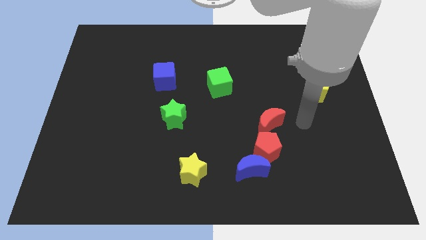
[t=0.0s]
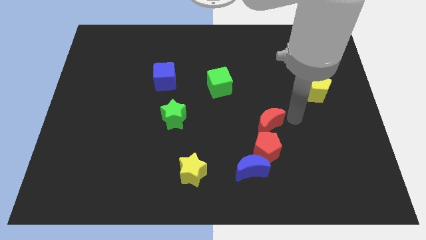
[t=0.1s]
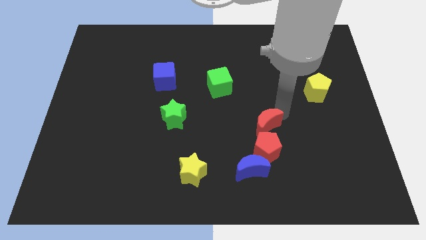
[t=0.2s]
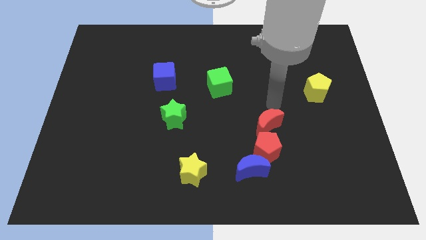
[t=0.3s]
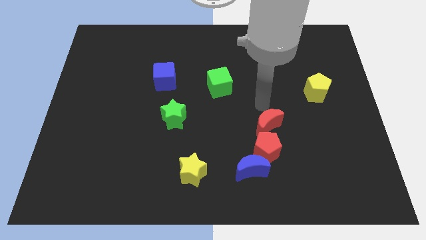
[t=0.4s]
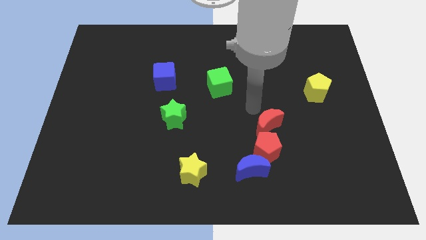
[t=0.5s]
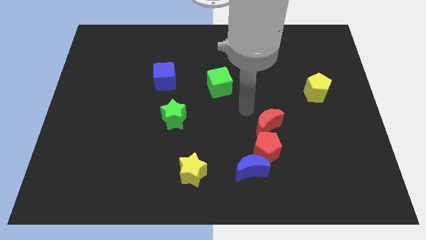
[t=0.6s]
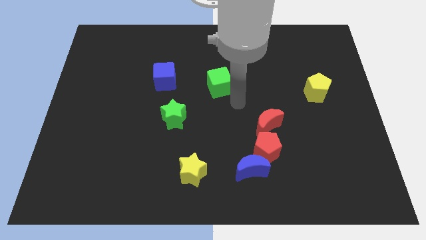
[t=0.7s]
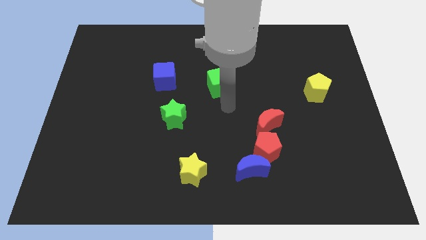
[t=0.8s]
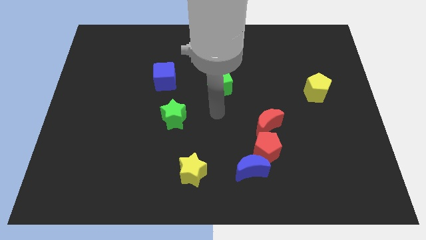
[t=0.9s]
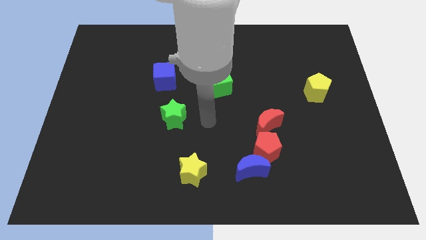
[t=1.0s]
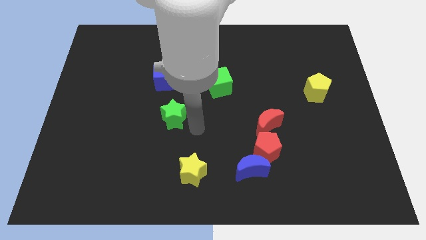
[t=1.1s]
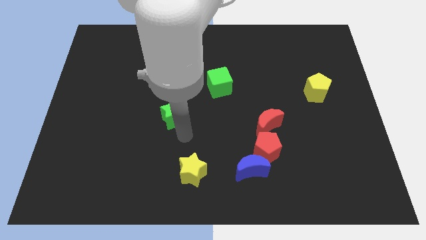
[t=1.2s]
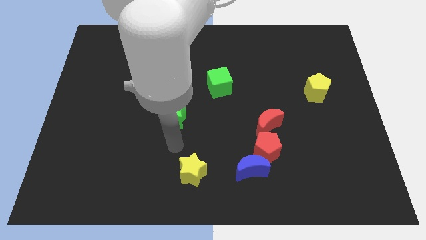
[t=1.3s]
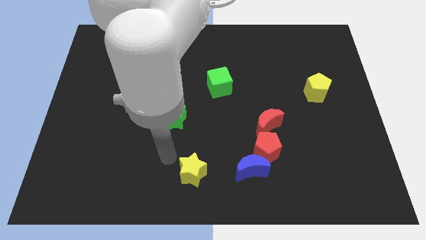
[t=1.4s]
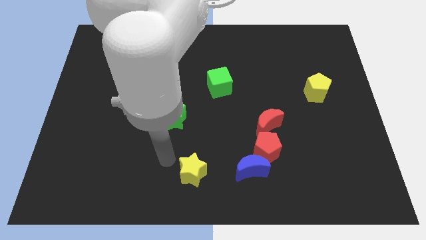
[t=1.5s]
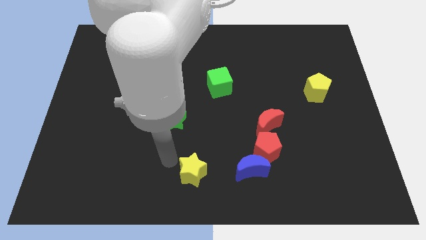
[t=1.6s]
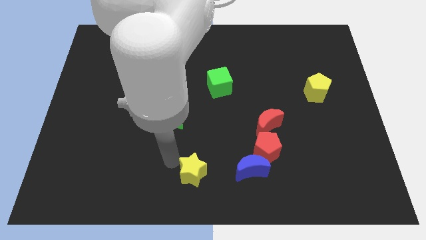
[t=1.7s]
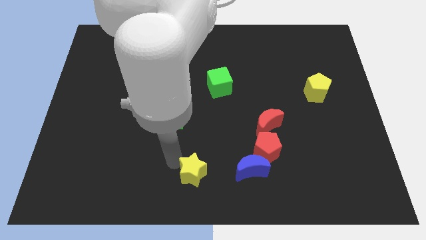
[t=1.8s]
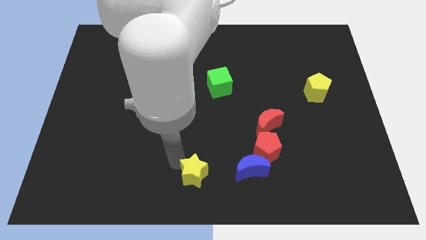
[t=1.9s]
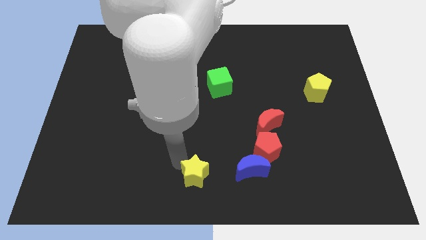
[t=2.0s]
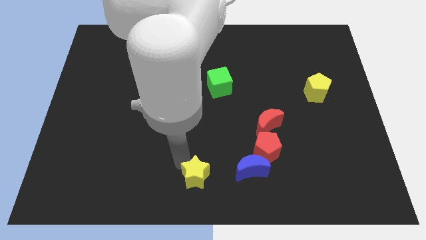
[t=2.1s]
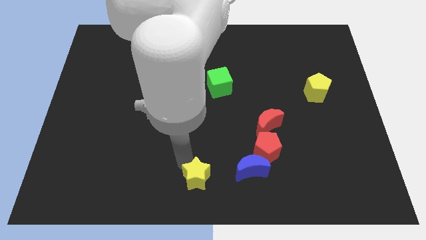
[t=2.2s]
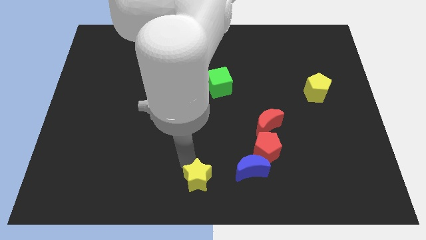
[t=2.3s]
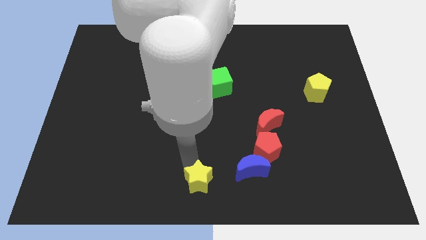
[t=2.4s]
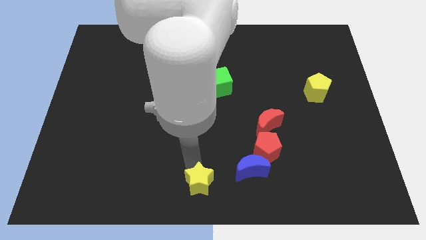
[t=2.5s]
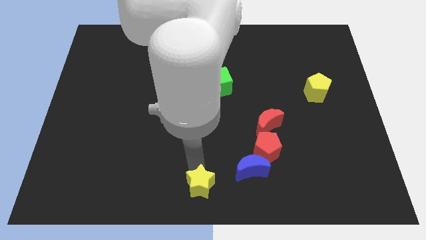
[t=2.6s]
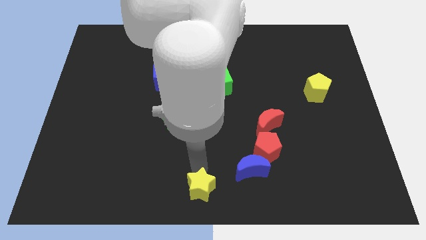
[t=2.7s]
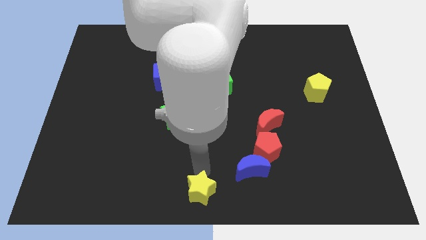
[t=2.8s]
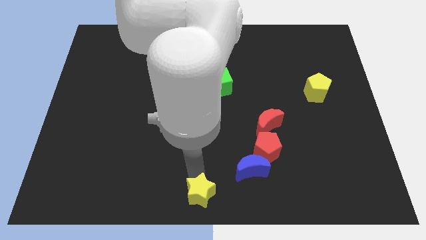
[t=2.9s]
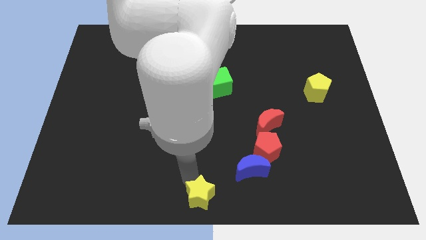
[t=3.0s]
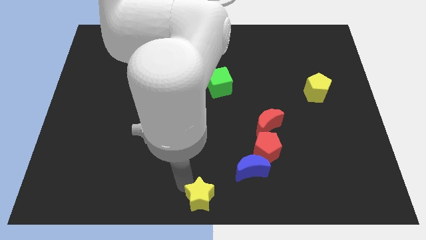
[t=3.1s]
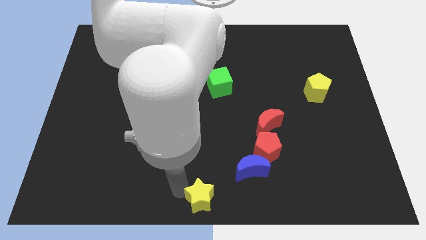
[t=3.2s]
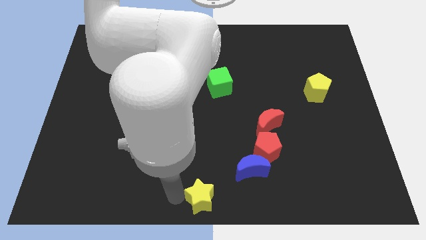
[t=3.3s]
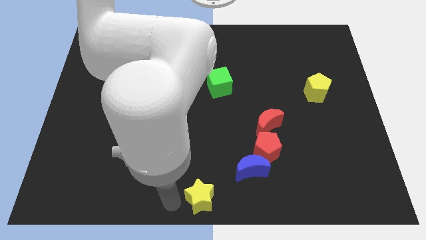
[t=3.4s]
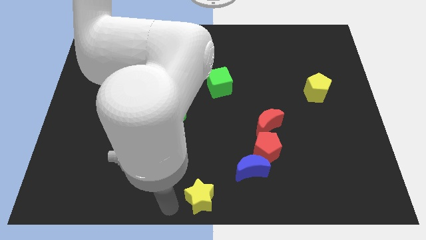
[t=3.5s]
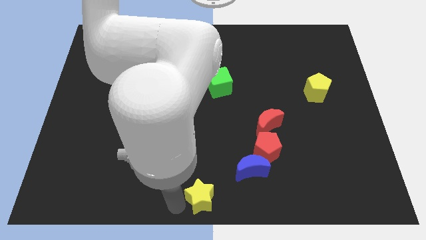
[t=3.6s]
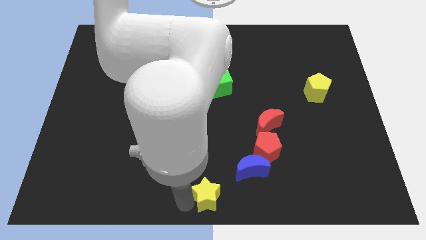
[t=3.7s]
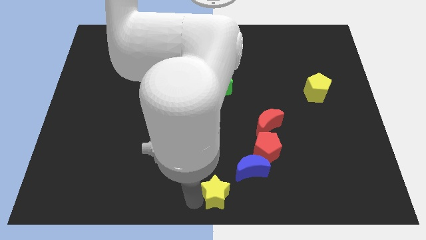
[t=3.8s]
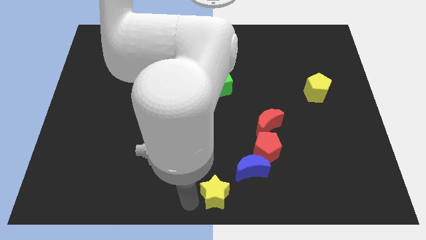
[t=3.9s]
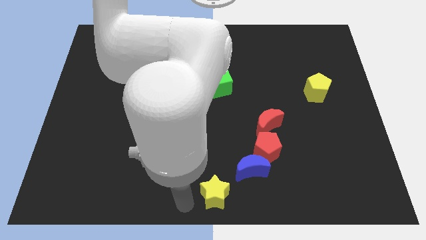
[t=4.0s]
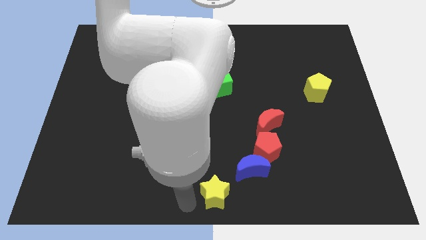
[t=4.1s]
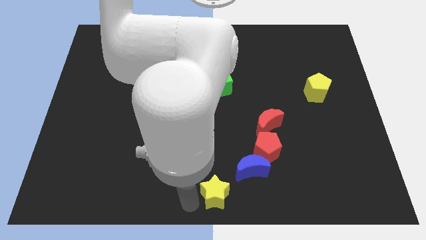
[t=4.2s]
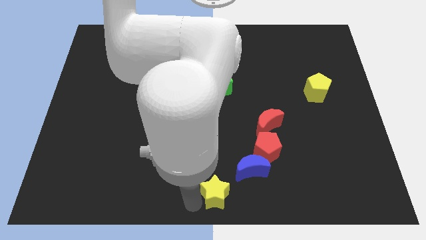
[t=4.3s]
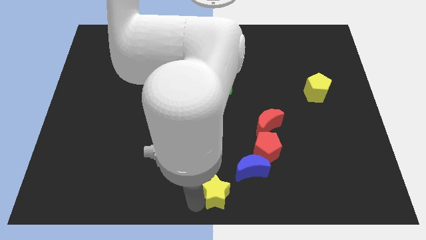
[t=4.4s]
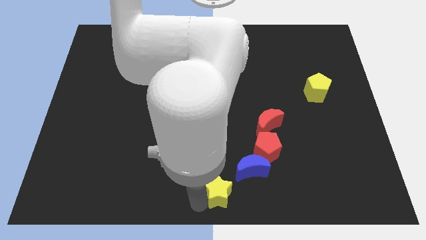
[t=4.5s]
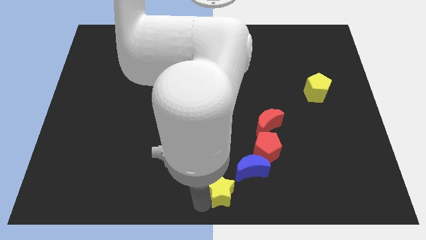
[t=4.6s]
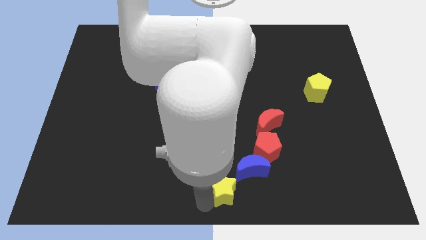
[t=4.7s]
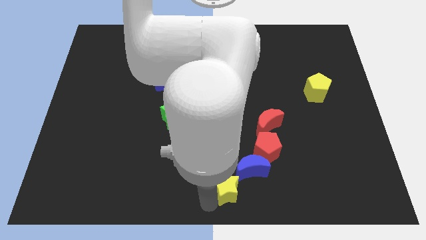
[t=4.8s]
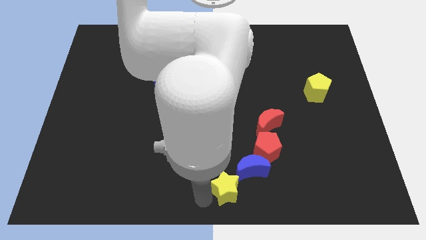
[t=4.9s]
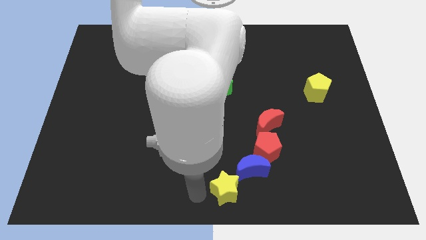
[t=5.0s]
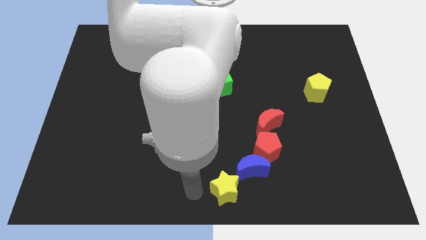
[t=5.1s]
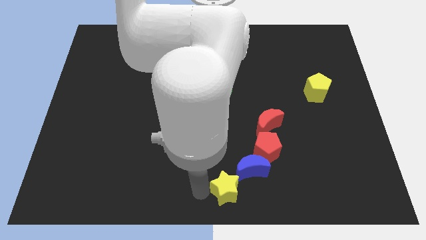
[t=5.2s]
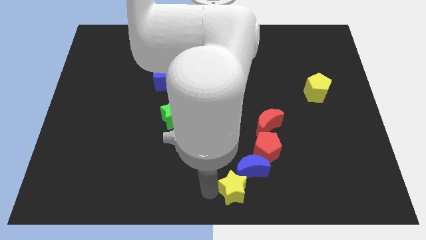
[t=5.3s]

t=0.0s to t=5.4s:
push the yellow star somewhat to the right

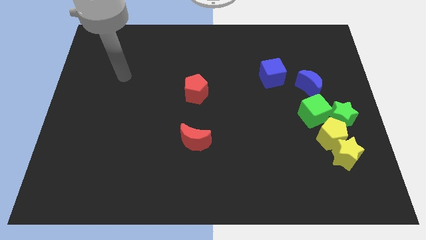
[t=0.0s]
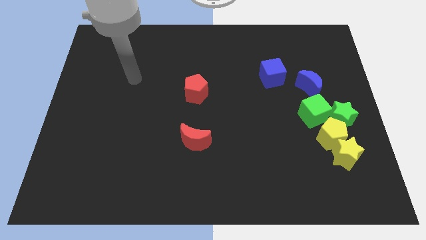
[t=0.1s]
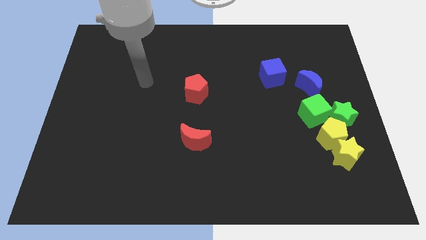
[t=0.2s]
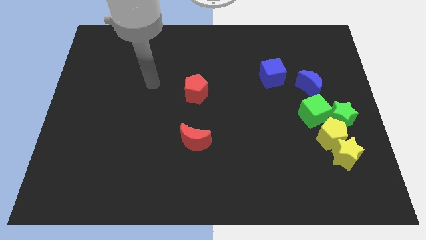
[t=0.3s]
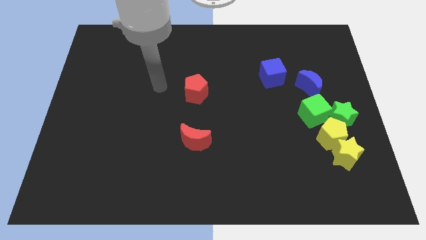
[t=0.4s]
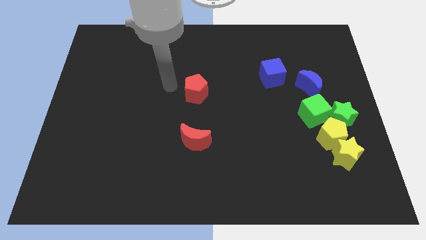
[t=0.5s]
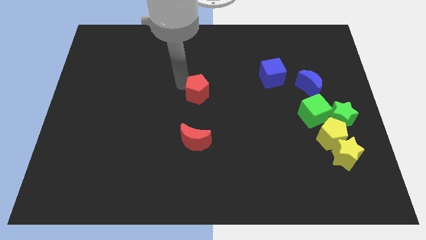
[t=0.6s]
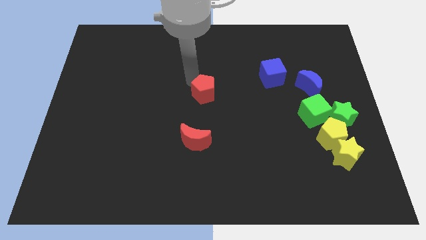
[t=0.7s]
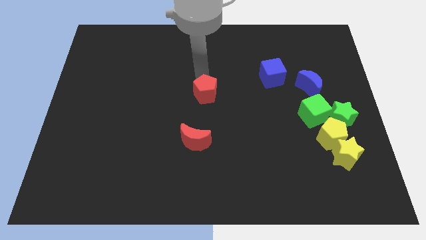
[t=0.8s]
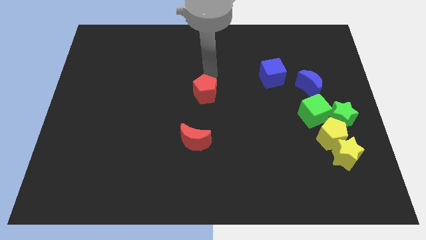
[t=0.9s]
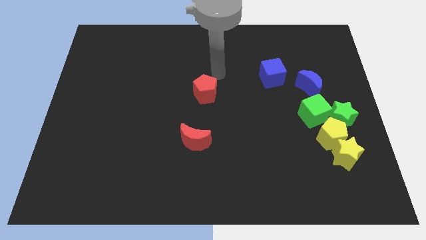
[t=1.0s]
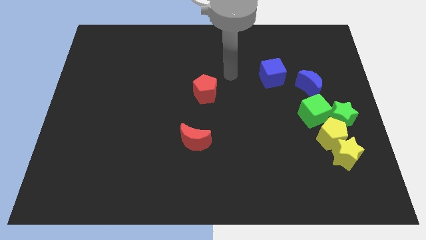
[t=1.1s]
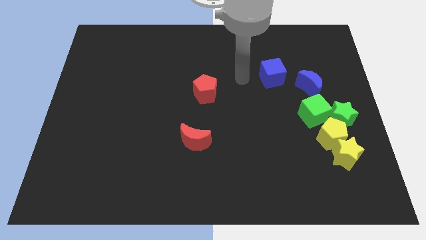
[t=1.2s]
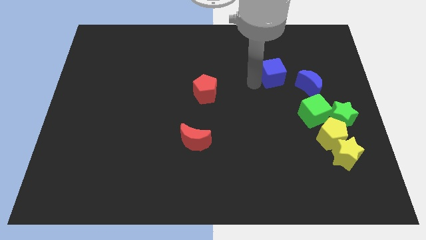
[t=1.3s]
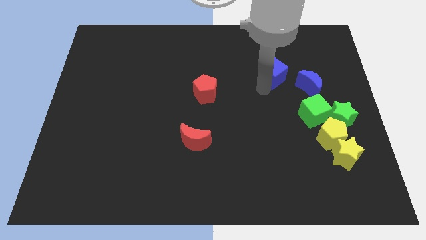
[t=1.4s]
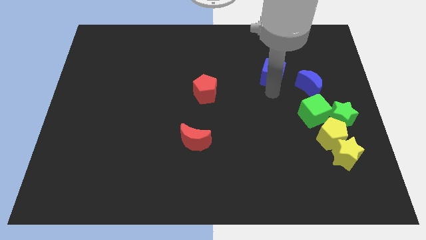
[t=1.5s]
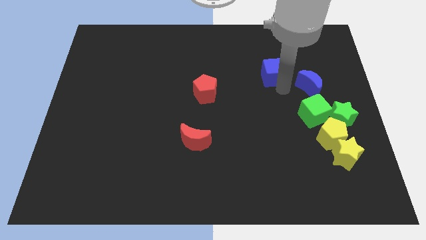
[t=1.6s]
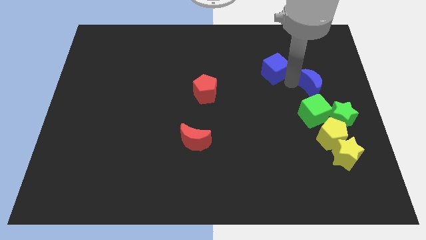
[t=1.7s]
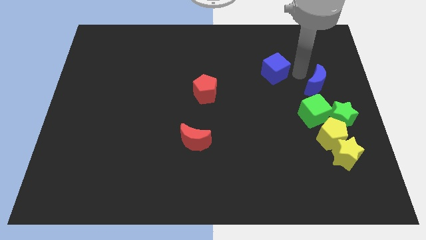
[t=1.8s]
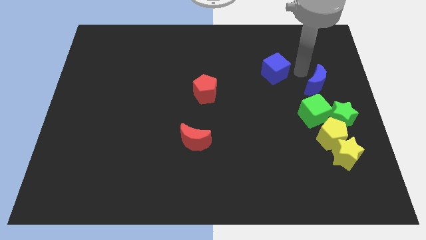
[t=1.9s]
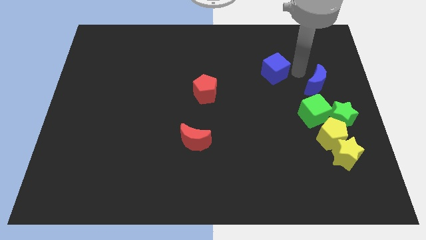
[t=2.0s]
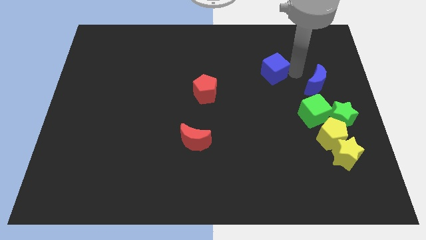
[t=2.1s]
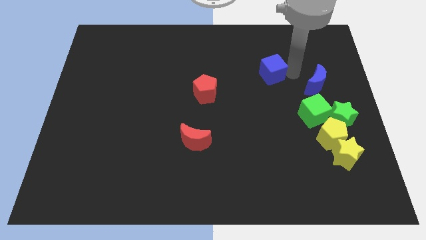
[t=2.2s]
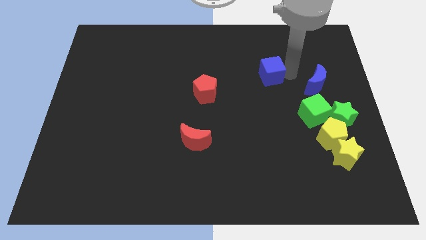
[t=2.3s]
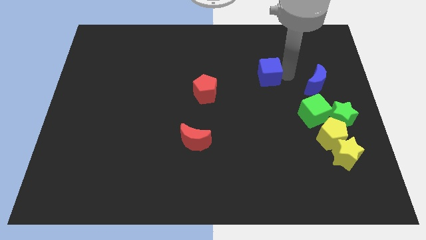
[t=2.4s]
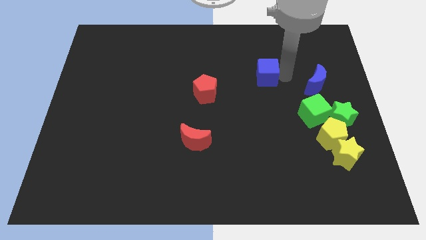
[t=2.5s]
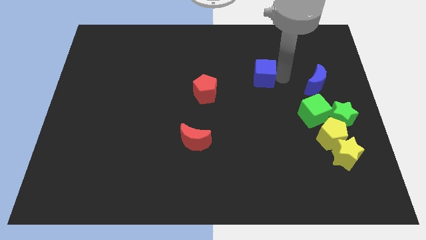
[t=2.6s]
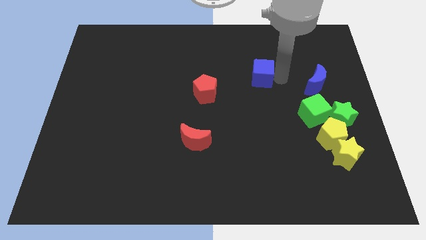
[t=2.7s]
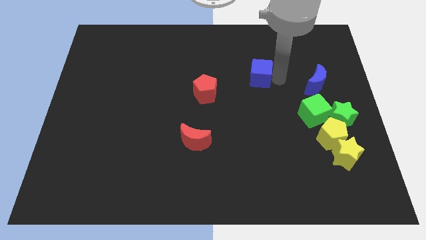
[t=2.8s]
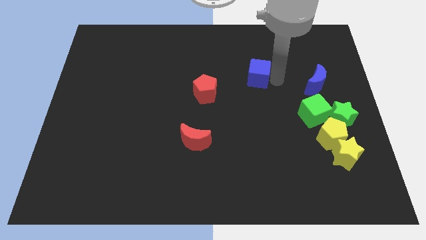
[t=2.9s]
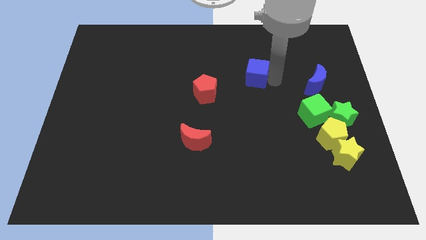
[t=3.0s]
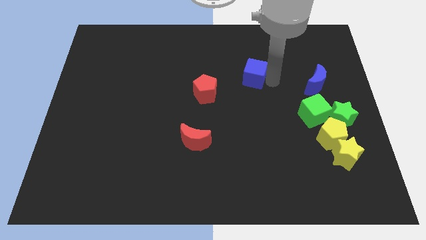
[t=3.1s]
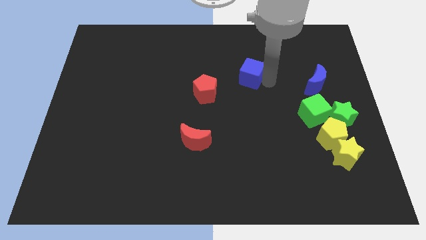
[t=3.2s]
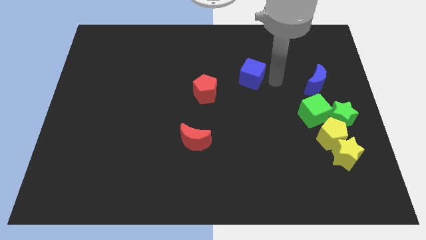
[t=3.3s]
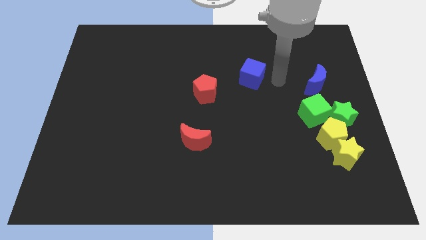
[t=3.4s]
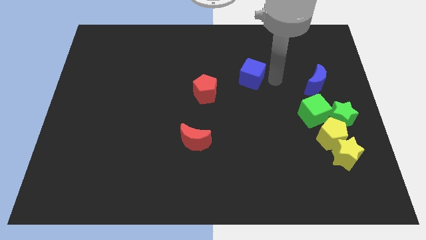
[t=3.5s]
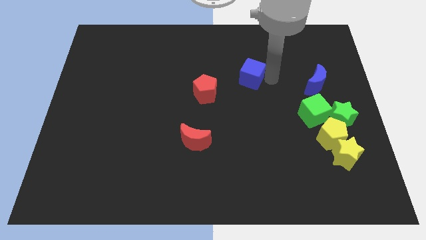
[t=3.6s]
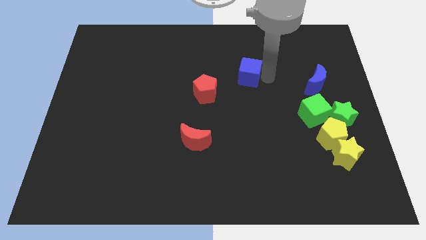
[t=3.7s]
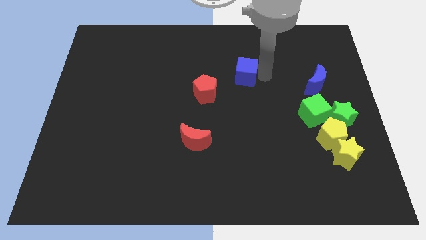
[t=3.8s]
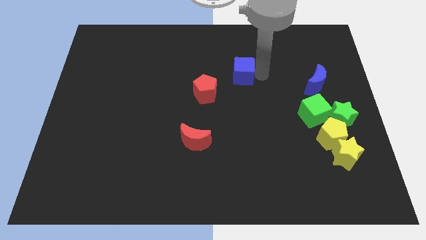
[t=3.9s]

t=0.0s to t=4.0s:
slide the blue cube a bit to the left
